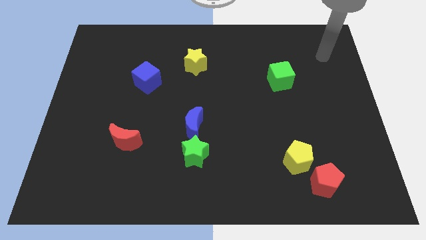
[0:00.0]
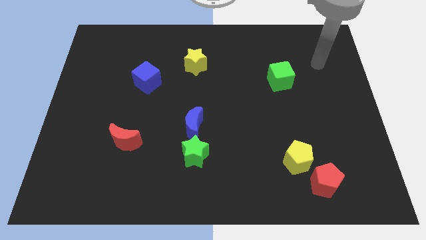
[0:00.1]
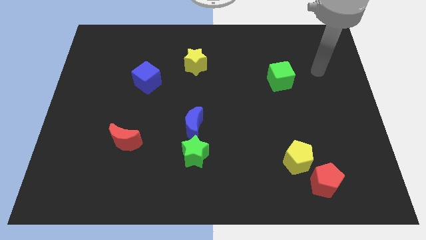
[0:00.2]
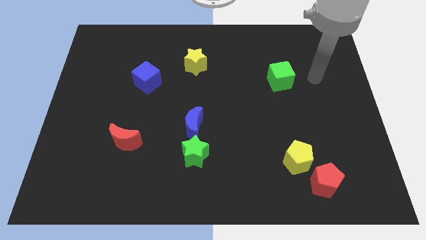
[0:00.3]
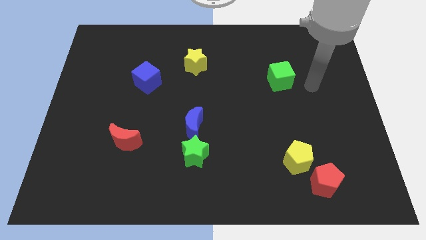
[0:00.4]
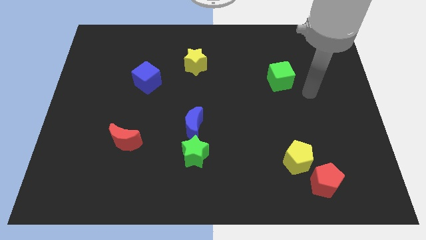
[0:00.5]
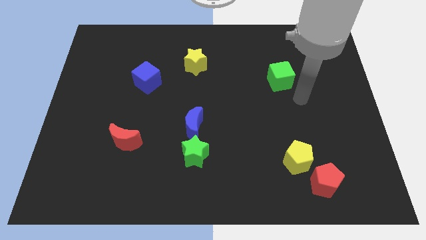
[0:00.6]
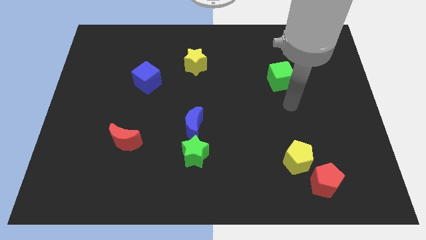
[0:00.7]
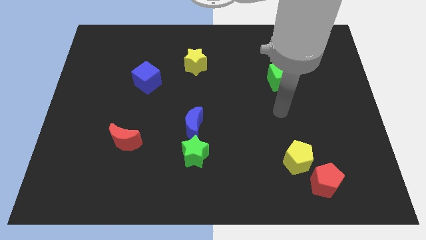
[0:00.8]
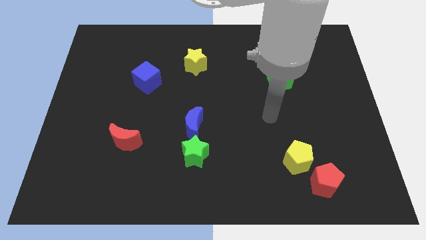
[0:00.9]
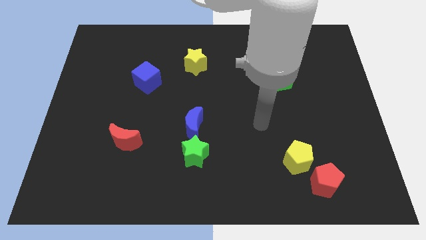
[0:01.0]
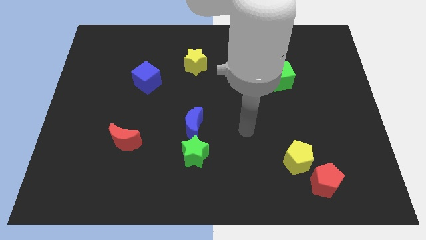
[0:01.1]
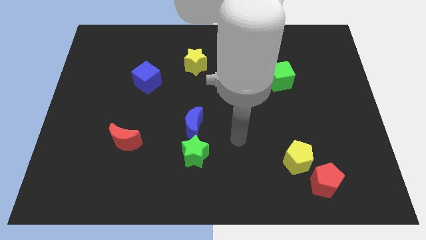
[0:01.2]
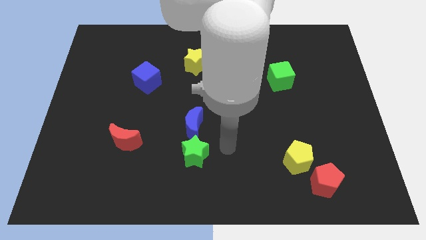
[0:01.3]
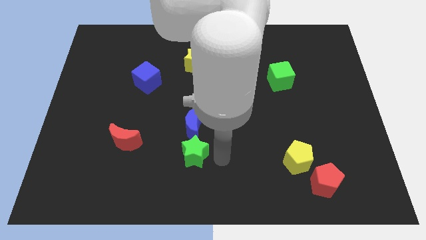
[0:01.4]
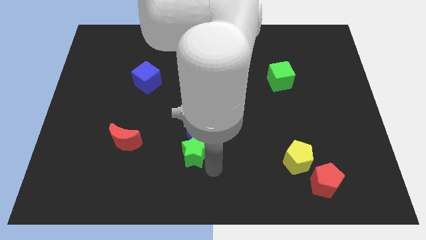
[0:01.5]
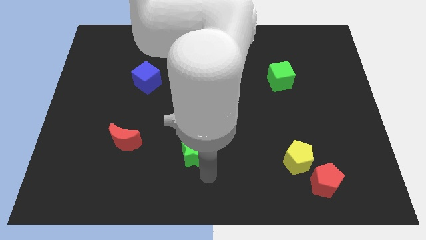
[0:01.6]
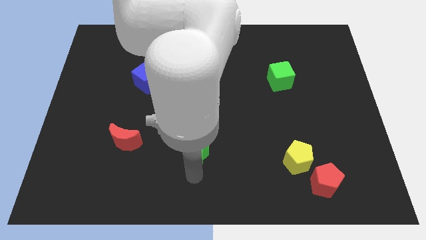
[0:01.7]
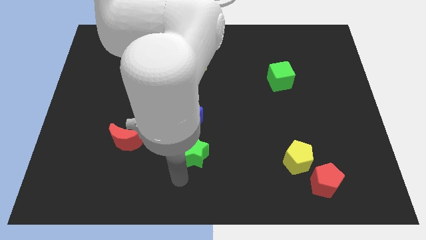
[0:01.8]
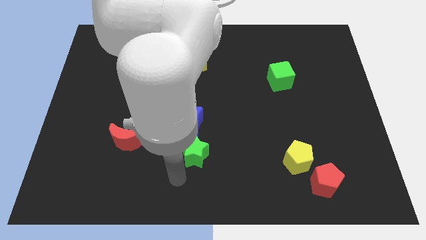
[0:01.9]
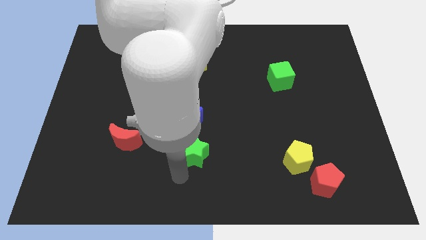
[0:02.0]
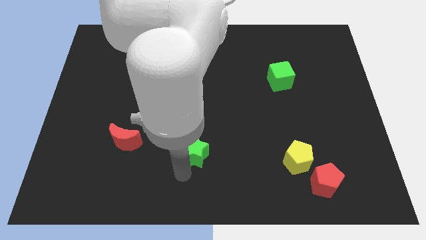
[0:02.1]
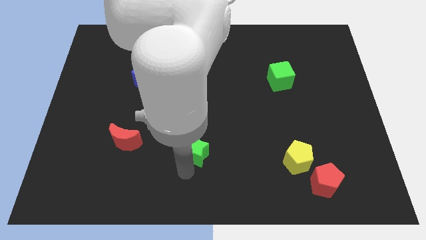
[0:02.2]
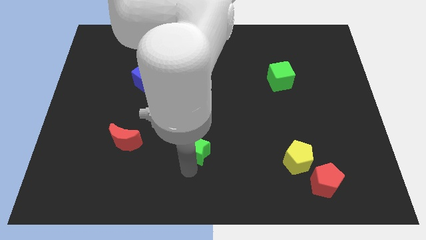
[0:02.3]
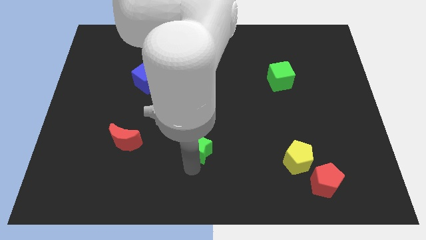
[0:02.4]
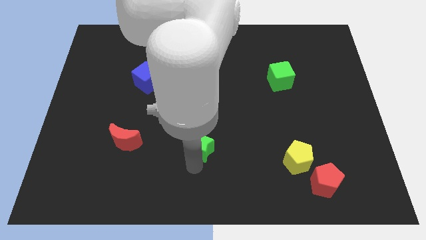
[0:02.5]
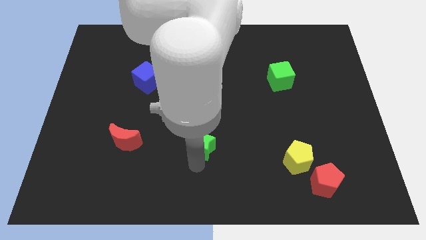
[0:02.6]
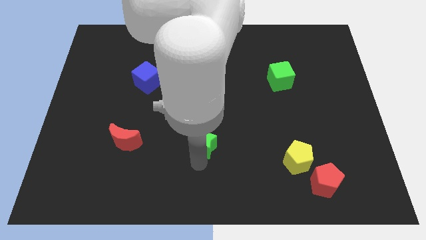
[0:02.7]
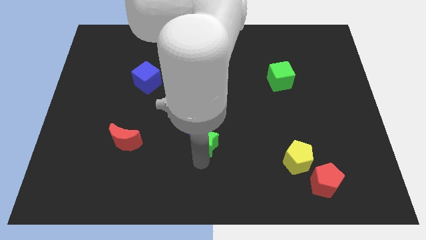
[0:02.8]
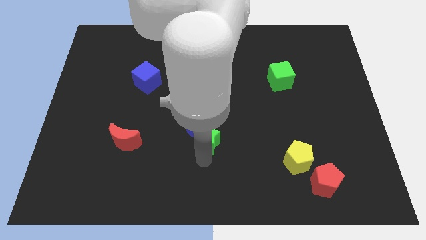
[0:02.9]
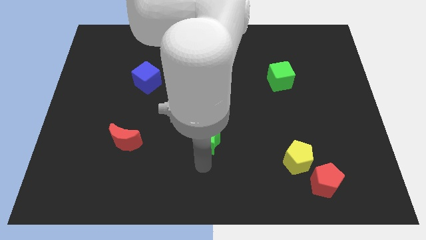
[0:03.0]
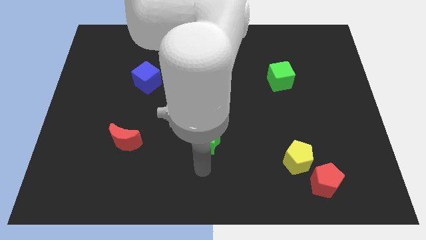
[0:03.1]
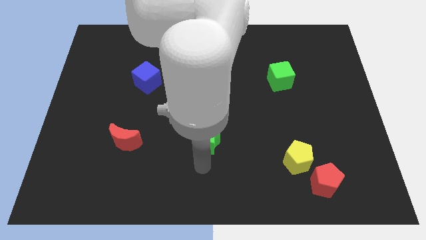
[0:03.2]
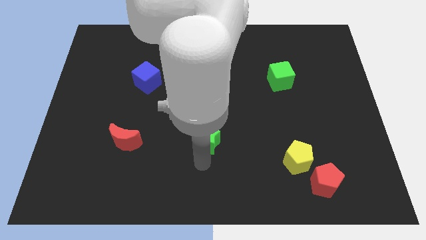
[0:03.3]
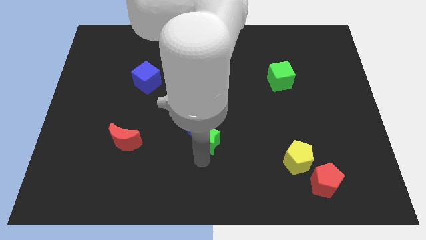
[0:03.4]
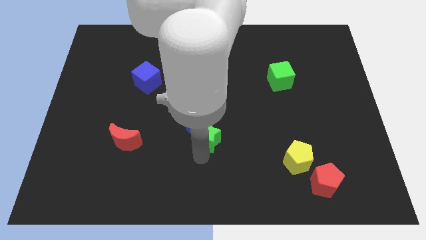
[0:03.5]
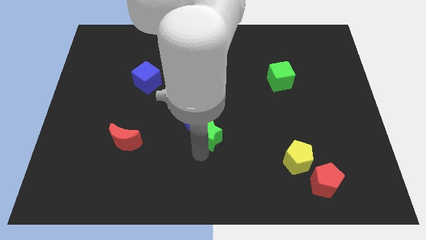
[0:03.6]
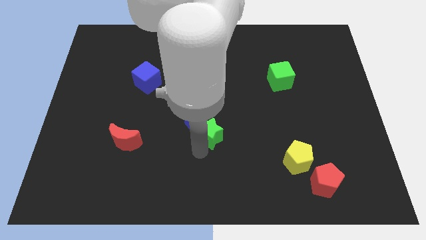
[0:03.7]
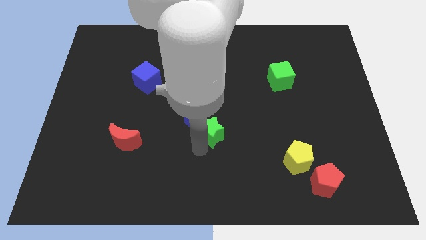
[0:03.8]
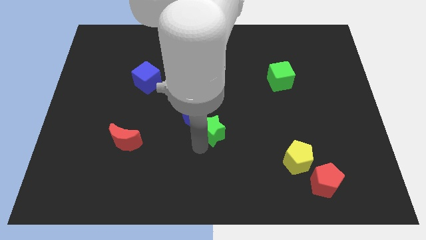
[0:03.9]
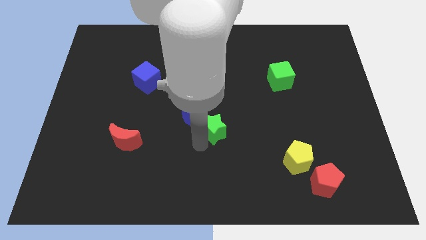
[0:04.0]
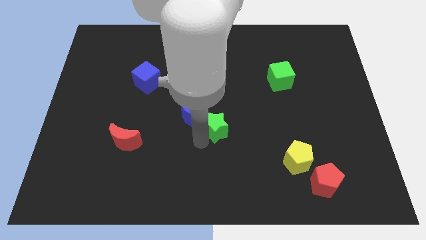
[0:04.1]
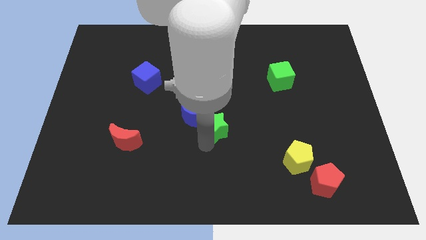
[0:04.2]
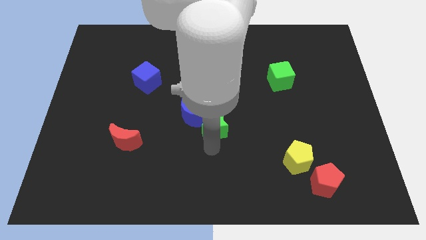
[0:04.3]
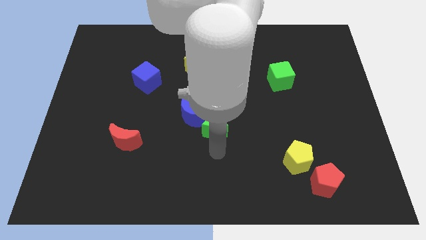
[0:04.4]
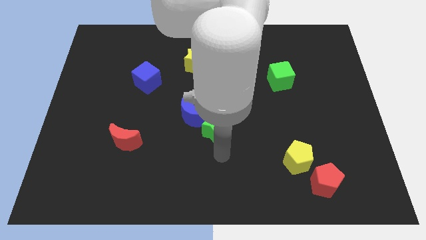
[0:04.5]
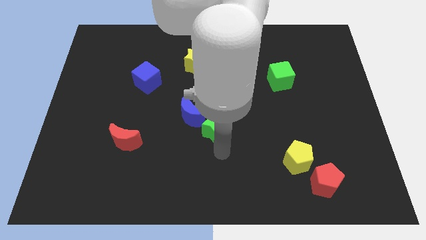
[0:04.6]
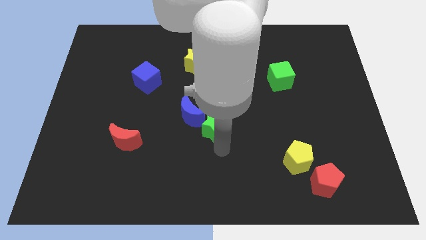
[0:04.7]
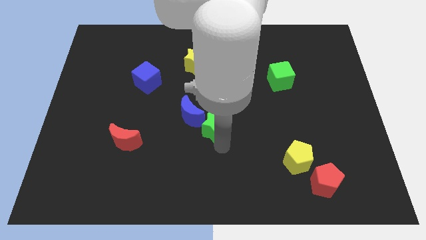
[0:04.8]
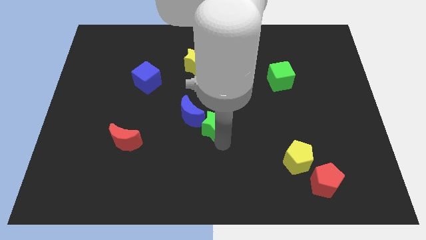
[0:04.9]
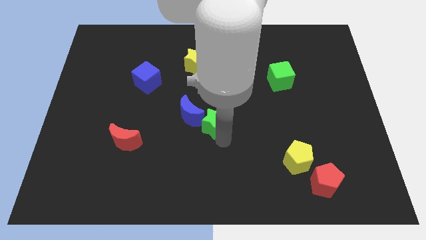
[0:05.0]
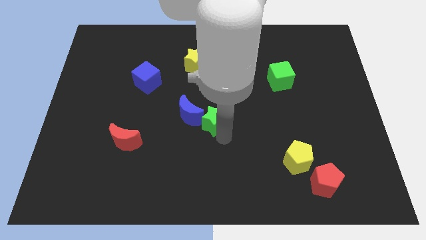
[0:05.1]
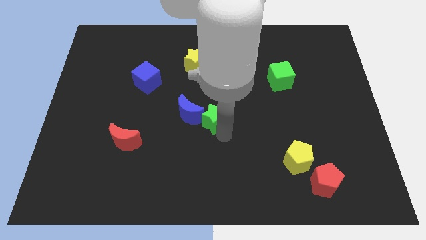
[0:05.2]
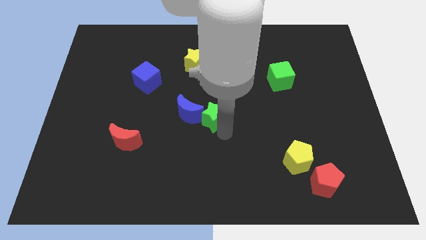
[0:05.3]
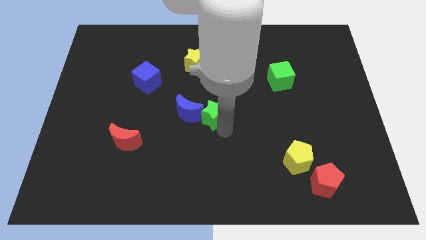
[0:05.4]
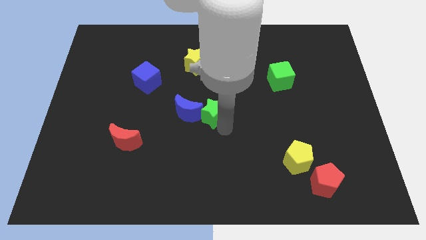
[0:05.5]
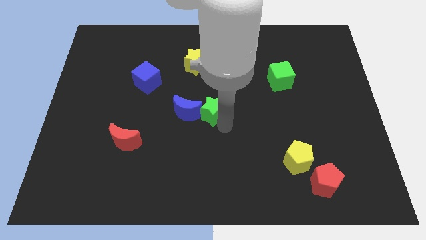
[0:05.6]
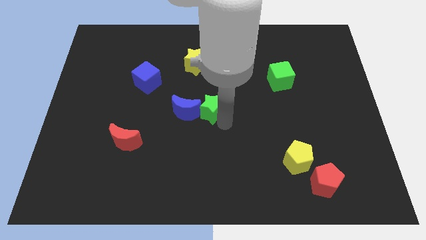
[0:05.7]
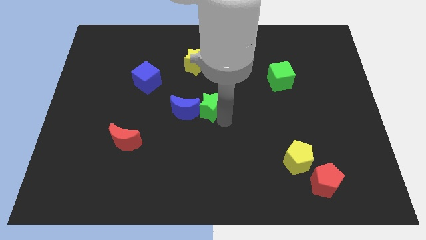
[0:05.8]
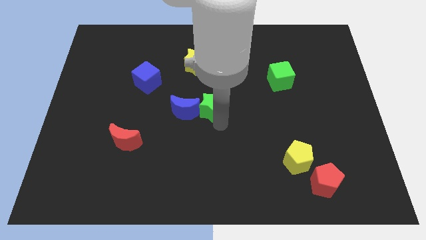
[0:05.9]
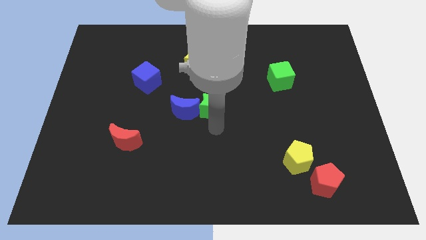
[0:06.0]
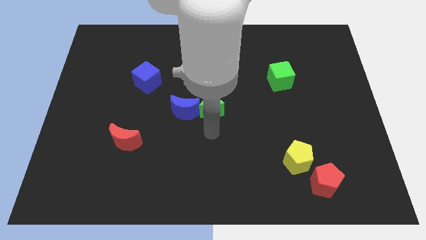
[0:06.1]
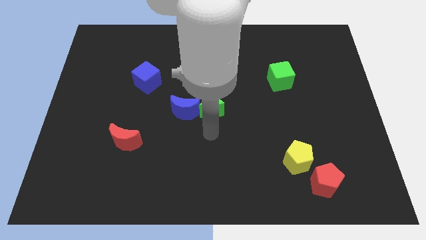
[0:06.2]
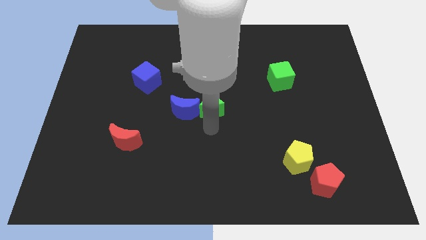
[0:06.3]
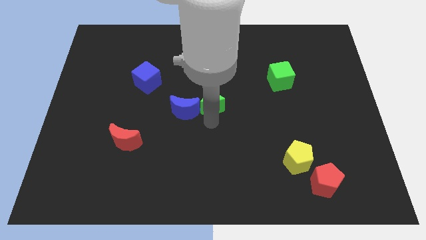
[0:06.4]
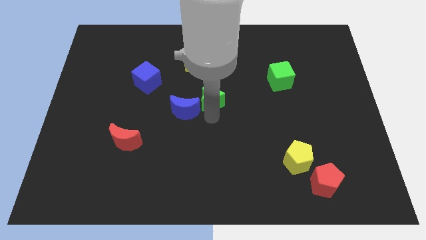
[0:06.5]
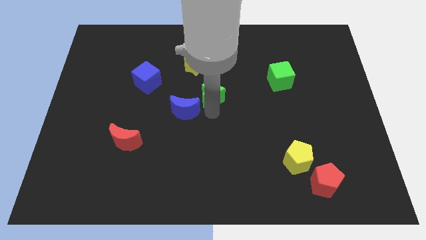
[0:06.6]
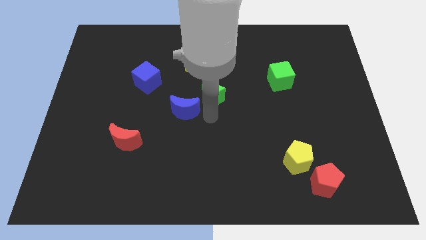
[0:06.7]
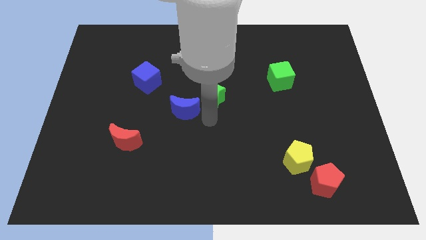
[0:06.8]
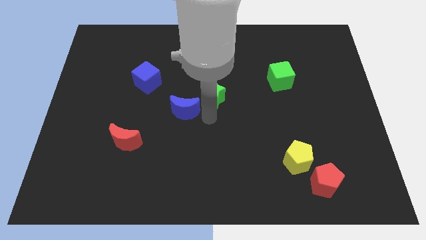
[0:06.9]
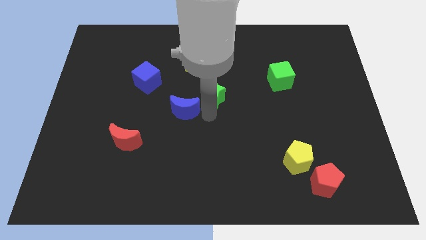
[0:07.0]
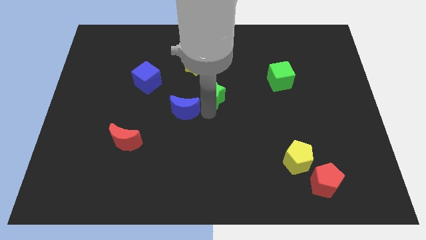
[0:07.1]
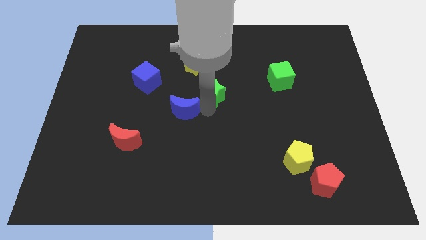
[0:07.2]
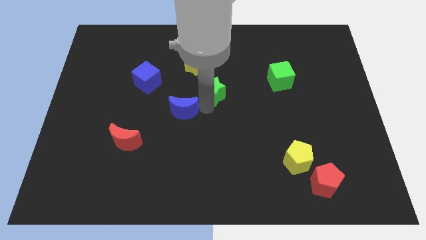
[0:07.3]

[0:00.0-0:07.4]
move the green star to the bottom right of the yellow star
